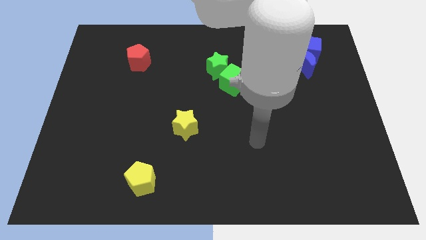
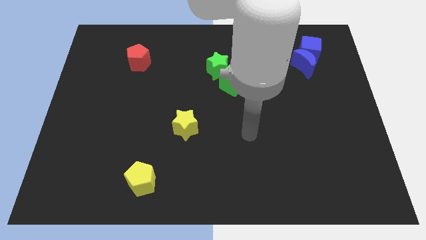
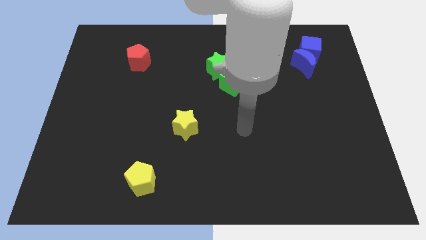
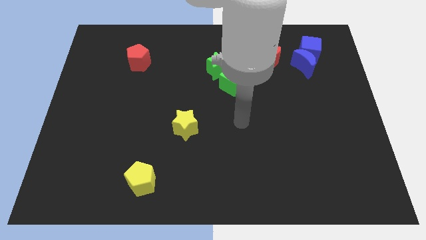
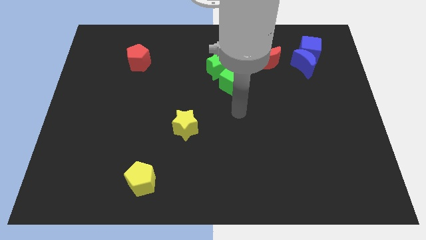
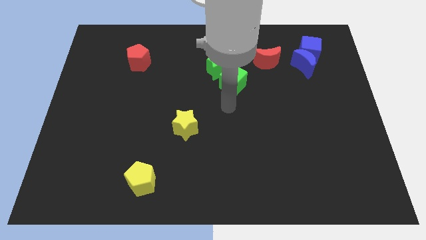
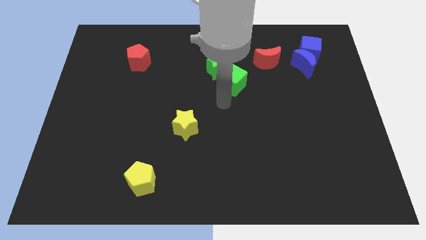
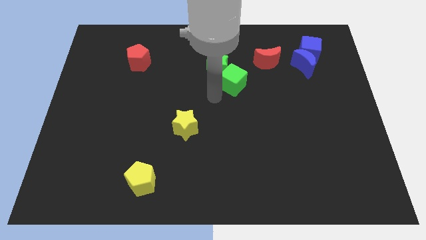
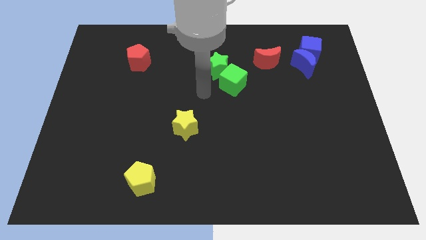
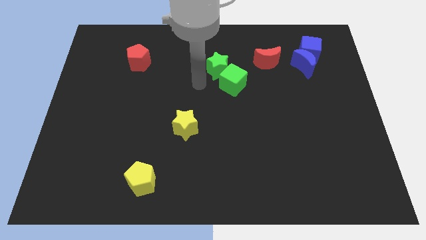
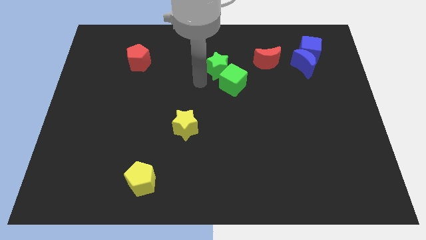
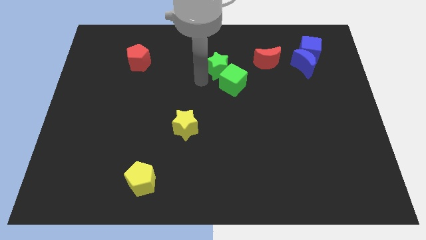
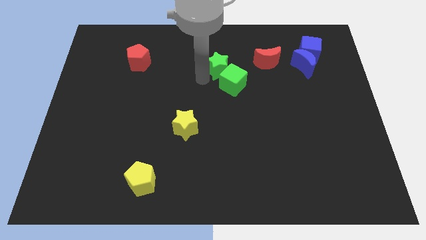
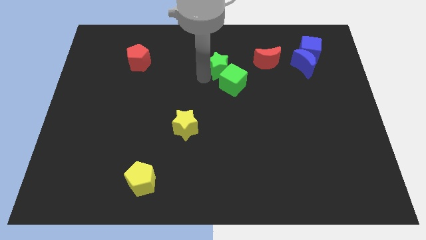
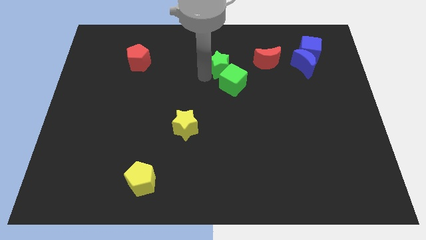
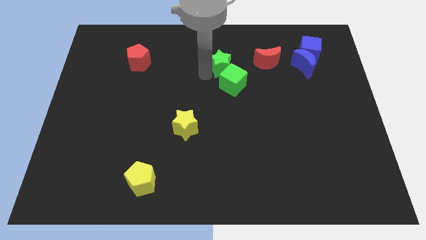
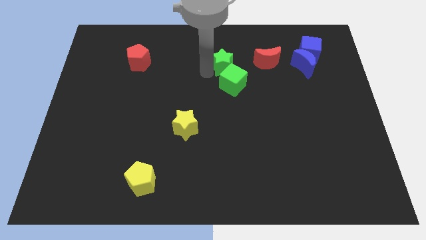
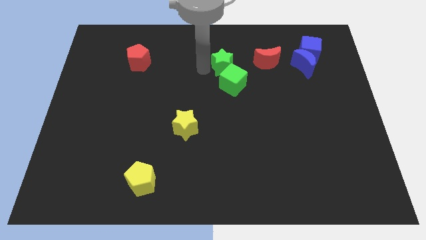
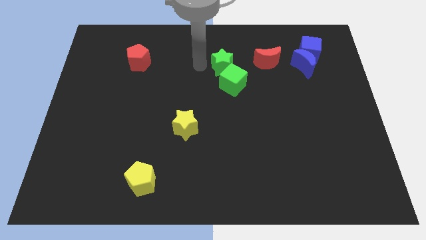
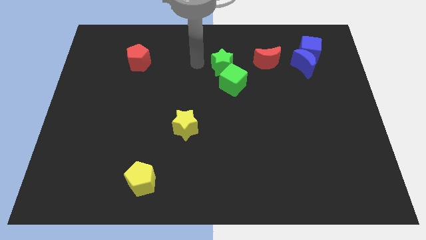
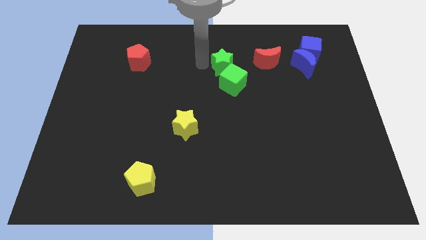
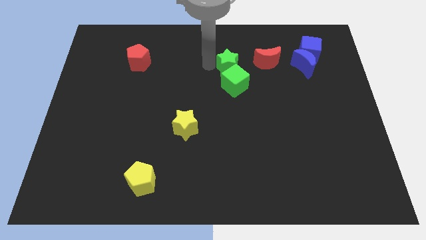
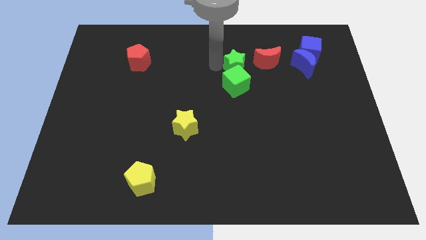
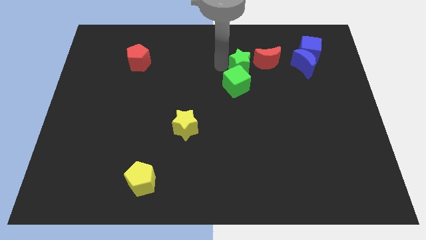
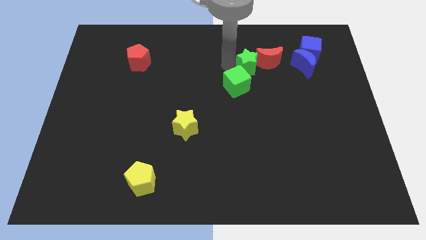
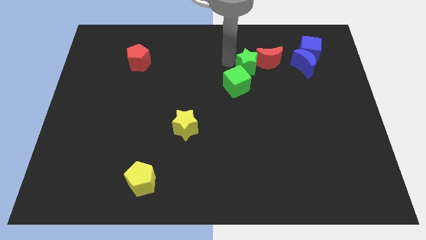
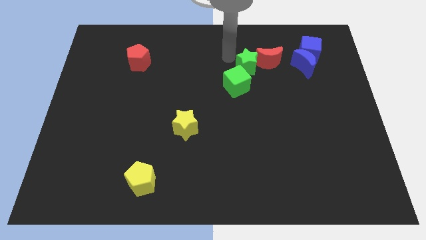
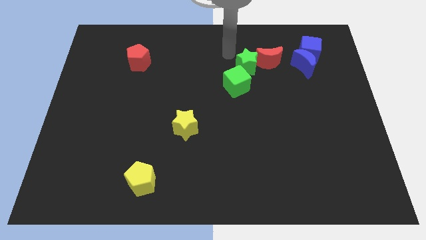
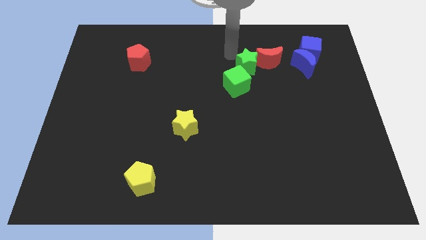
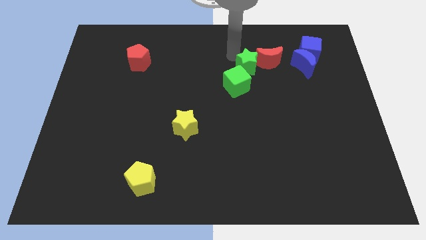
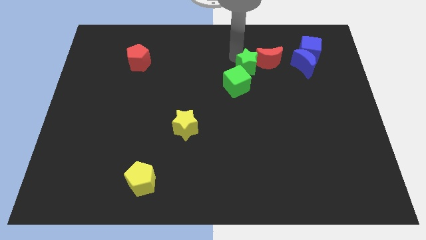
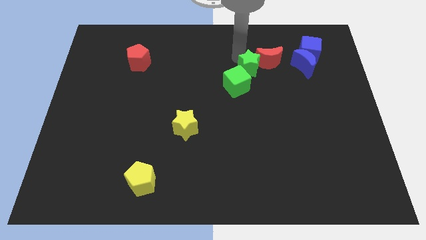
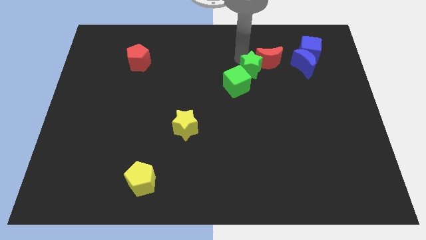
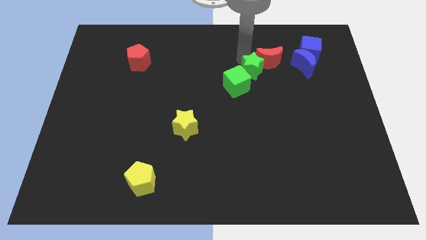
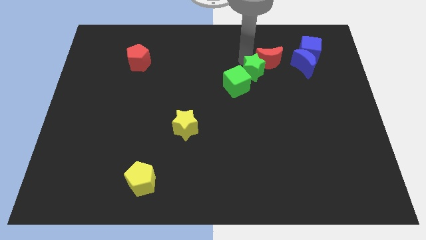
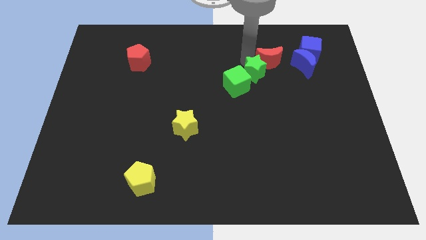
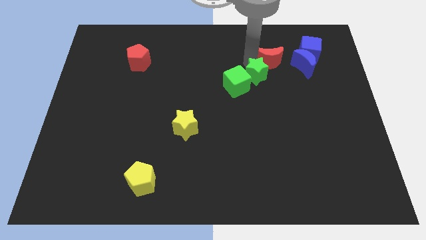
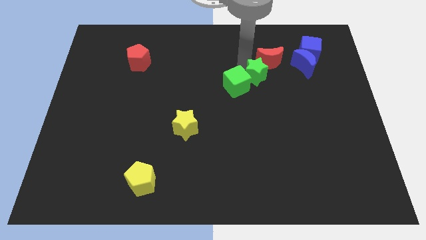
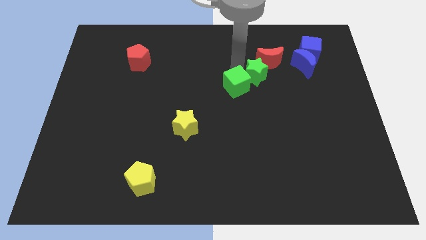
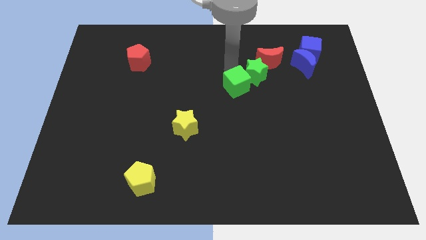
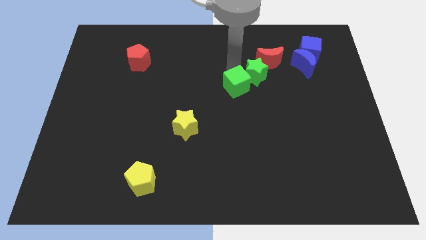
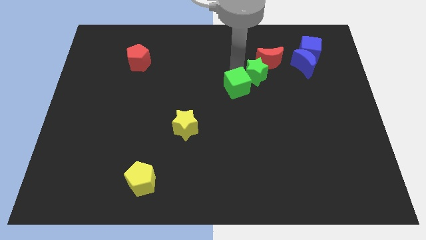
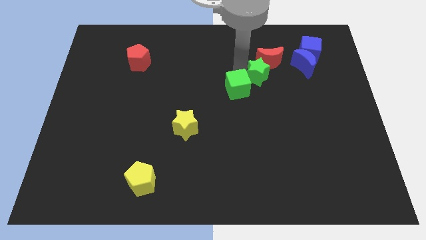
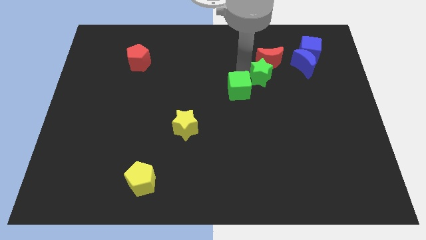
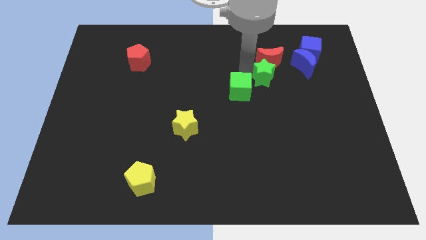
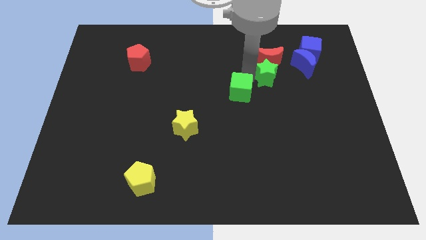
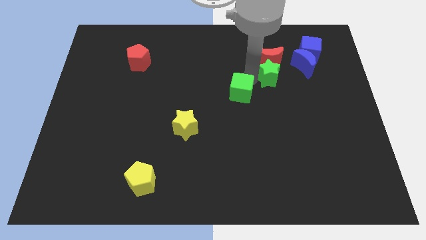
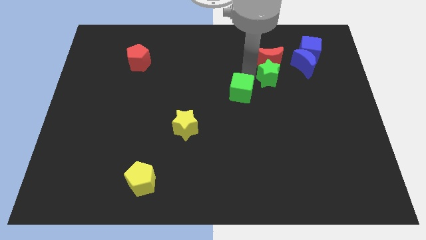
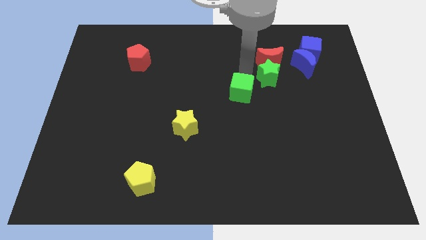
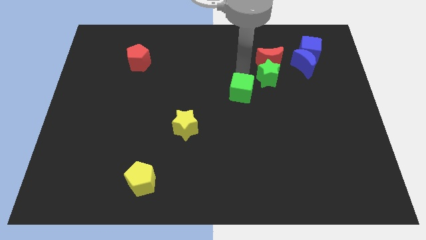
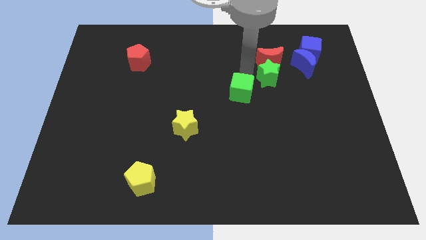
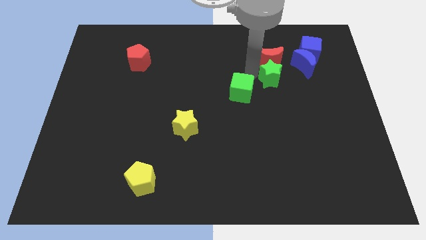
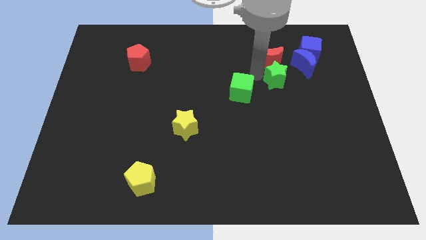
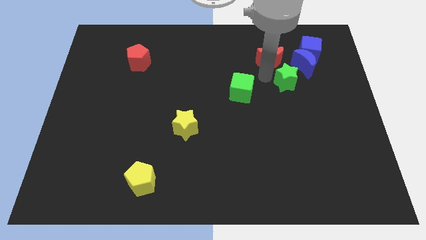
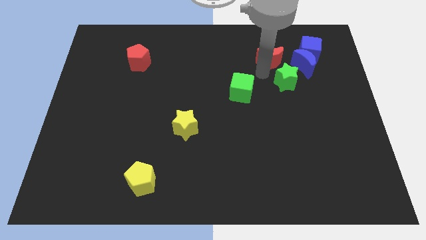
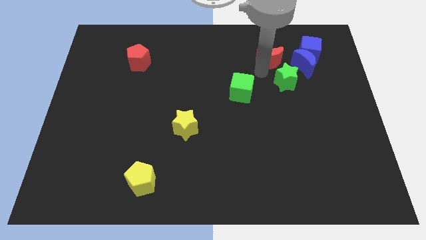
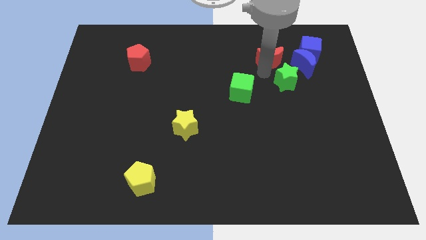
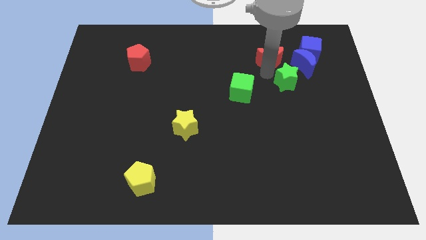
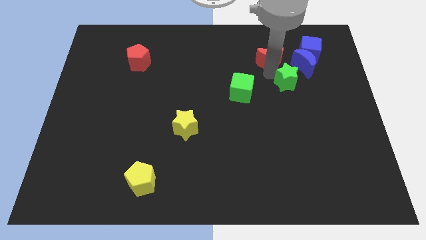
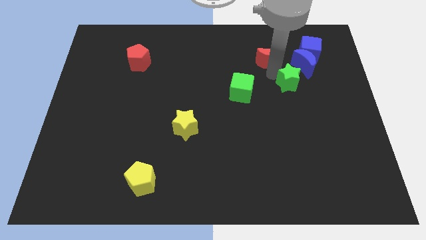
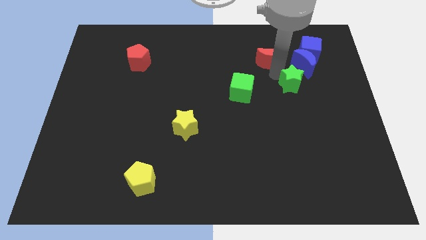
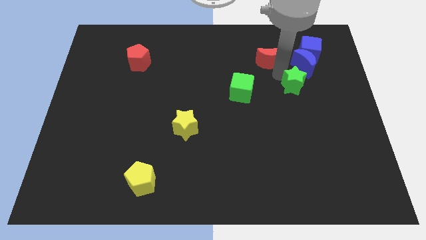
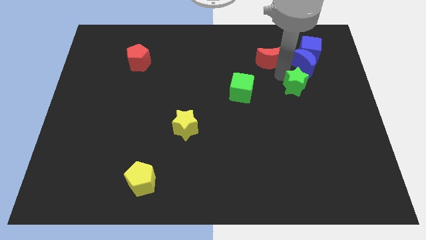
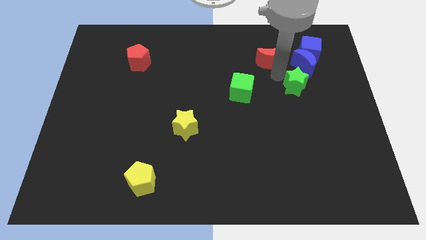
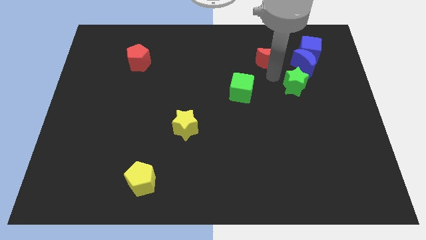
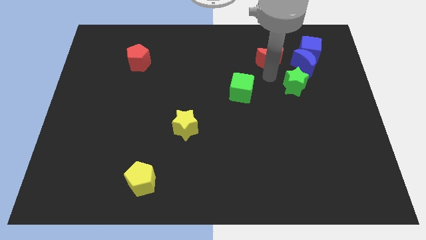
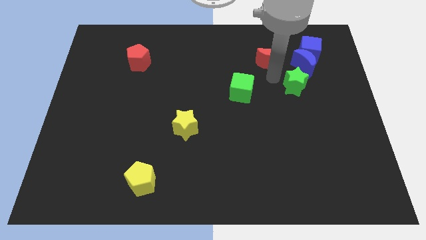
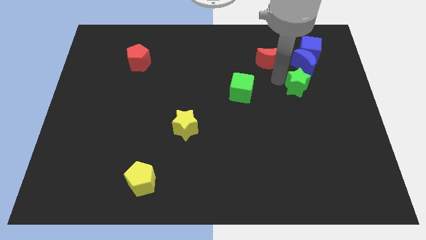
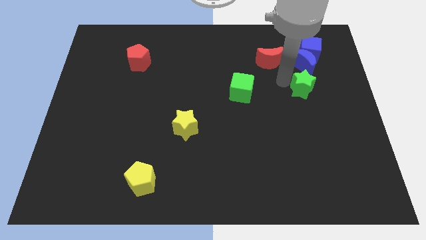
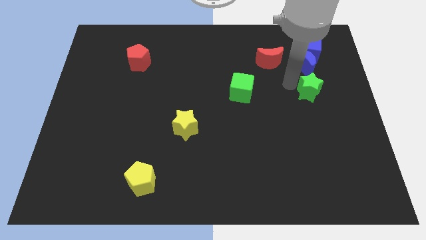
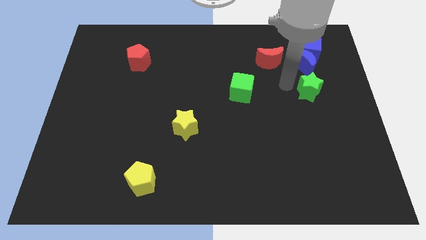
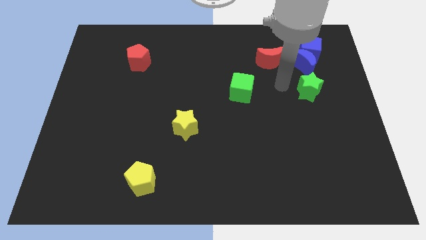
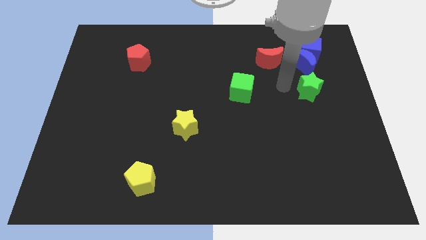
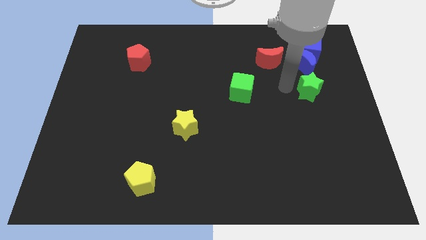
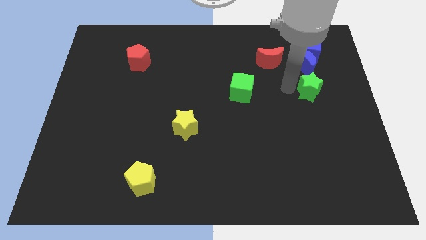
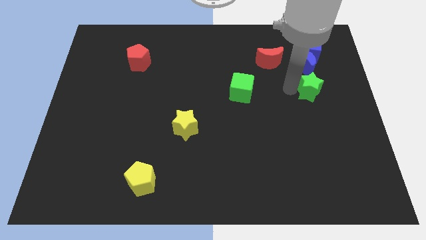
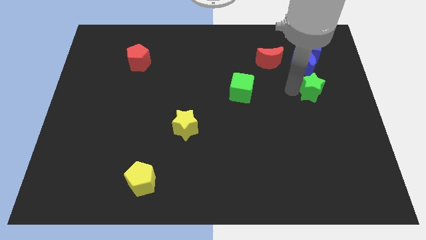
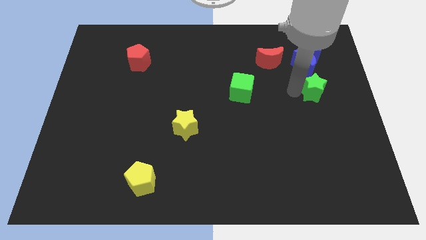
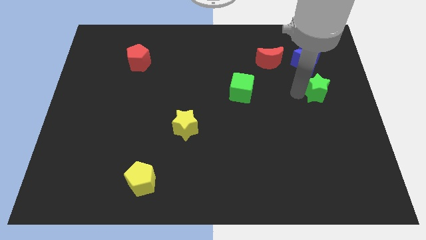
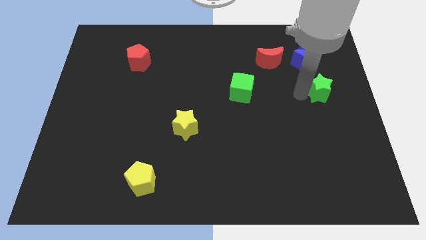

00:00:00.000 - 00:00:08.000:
slide the green star to the right side
